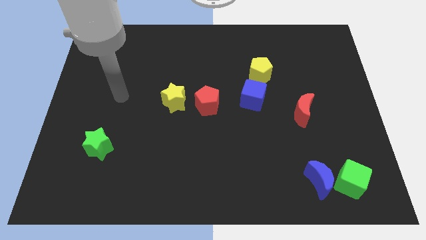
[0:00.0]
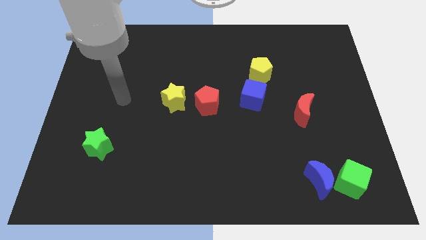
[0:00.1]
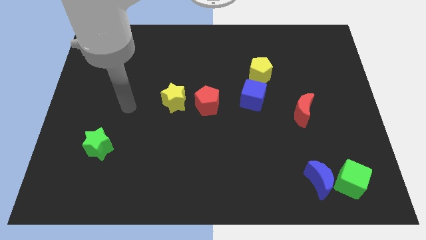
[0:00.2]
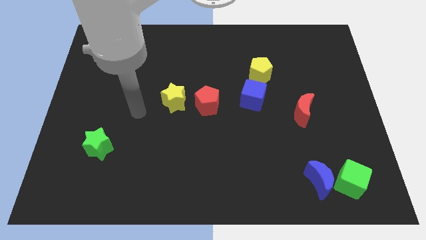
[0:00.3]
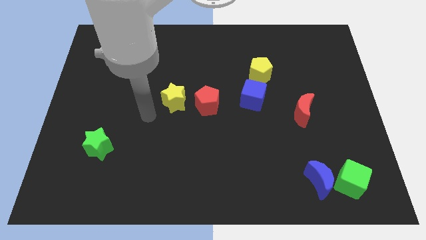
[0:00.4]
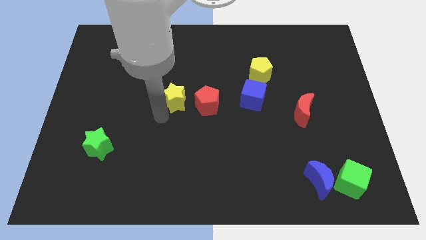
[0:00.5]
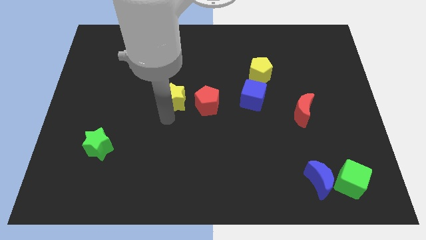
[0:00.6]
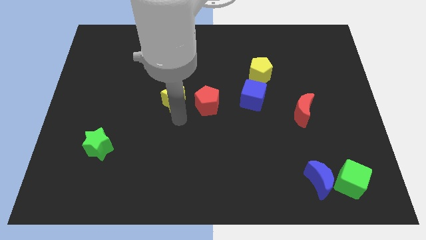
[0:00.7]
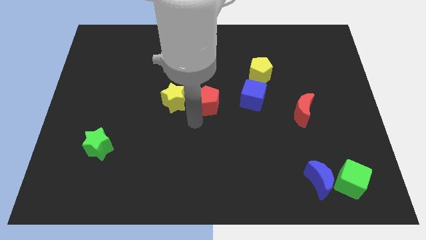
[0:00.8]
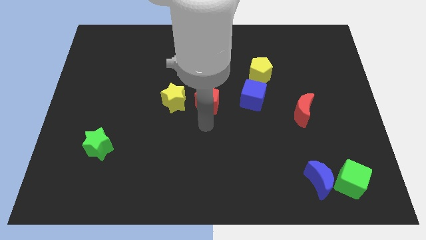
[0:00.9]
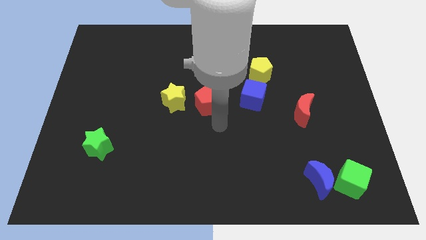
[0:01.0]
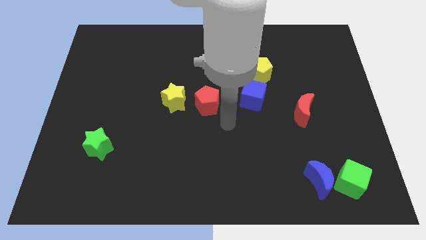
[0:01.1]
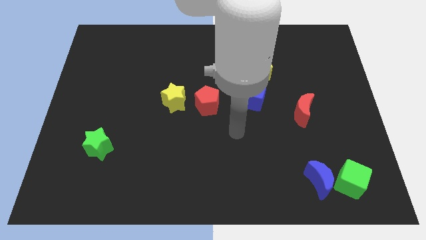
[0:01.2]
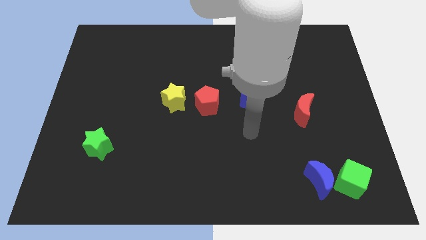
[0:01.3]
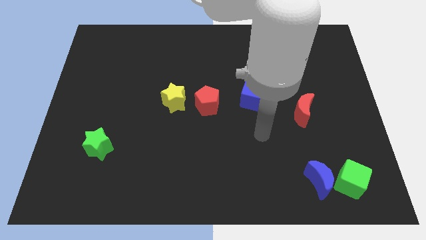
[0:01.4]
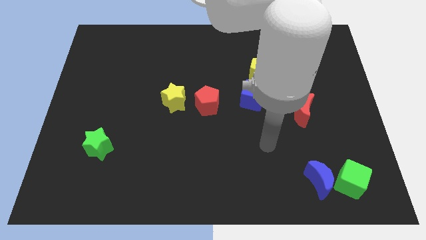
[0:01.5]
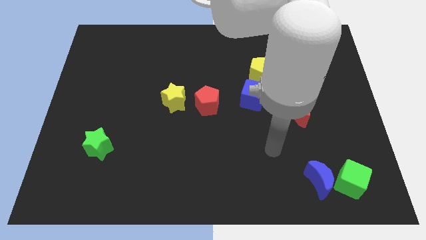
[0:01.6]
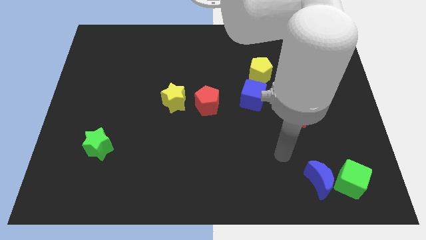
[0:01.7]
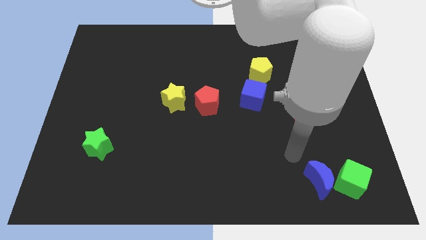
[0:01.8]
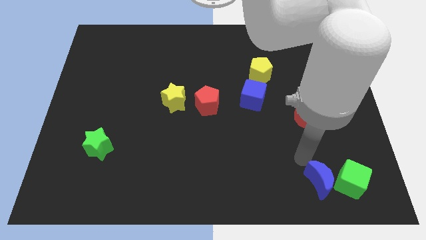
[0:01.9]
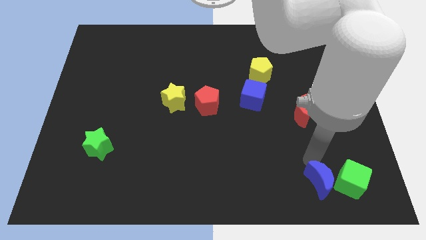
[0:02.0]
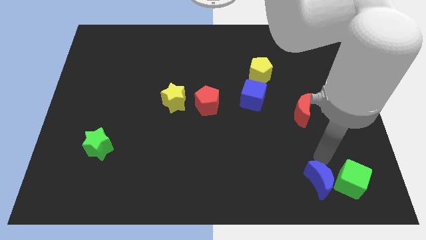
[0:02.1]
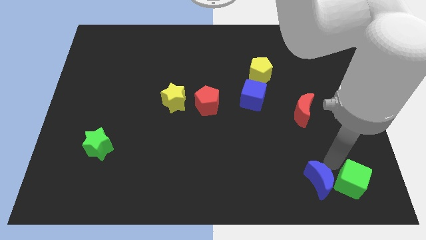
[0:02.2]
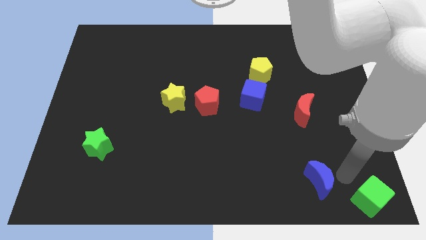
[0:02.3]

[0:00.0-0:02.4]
move the blue moon away from the green cube

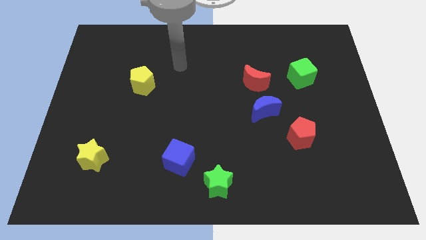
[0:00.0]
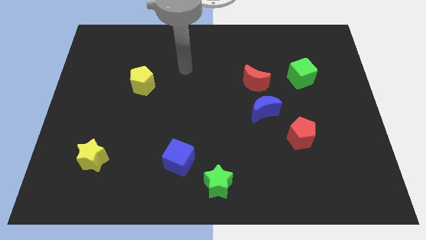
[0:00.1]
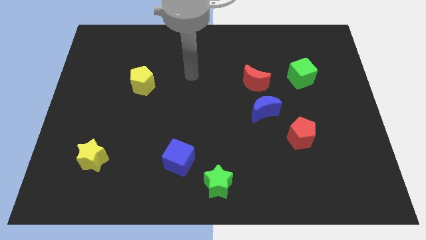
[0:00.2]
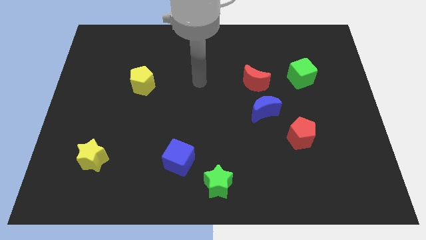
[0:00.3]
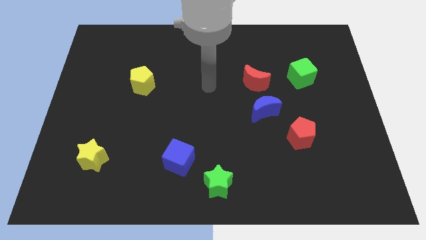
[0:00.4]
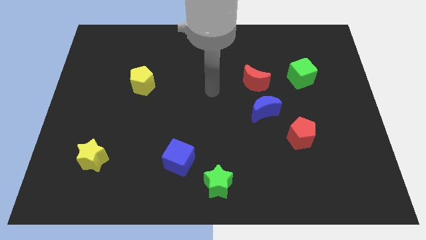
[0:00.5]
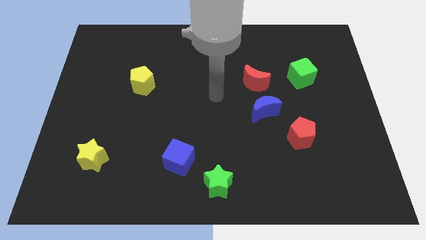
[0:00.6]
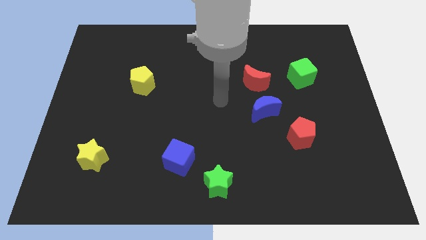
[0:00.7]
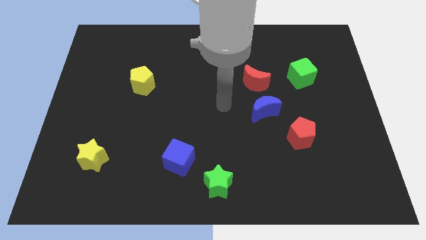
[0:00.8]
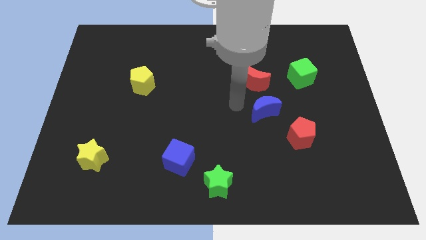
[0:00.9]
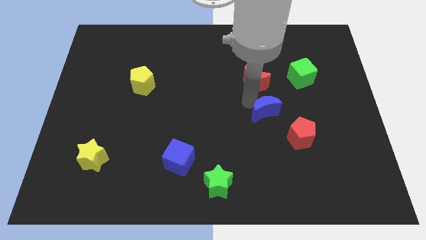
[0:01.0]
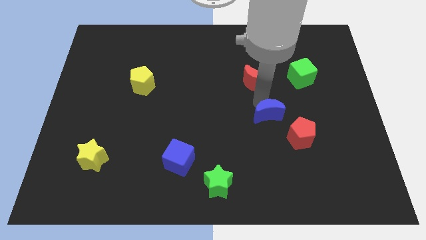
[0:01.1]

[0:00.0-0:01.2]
separate the red moon from the blue moon

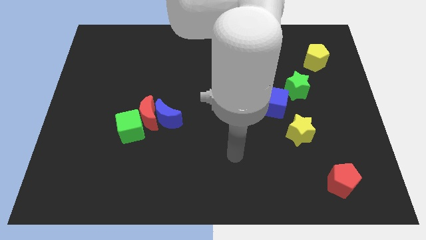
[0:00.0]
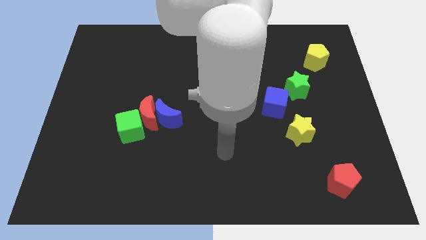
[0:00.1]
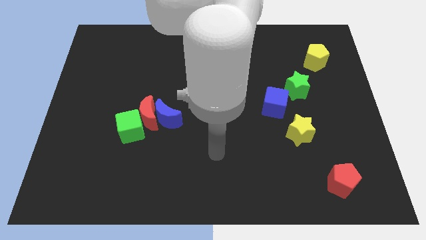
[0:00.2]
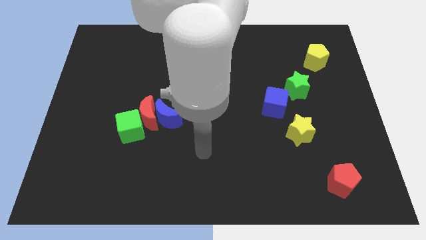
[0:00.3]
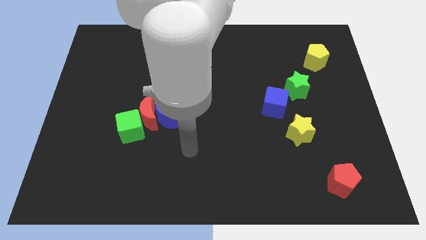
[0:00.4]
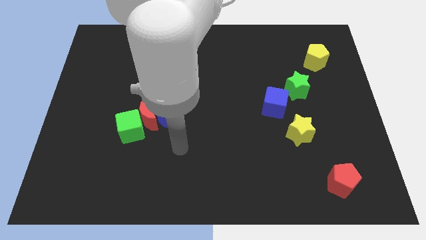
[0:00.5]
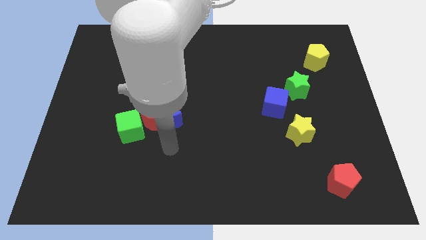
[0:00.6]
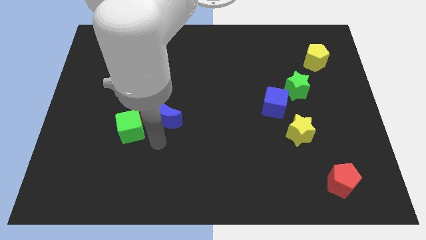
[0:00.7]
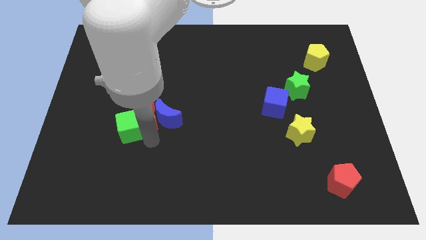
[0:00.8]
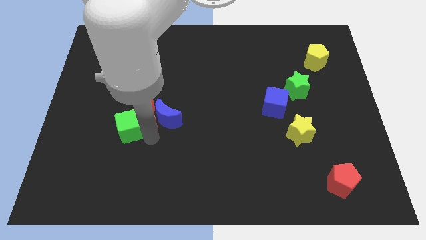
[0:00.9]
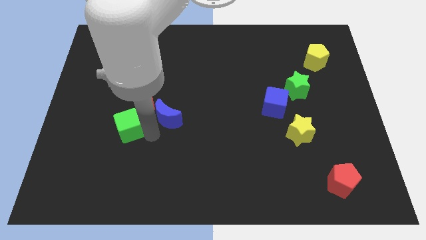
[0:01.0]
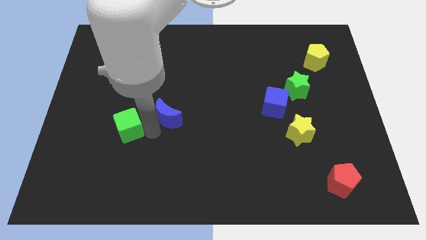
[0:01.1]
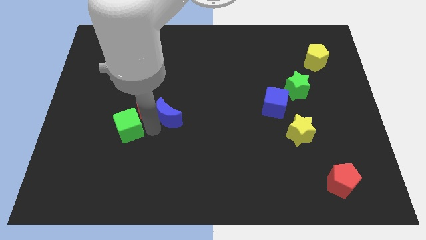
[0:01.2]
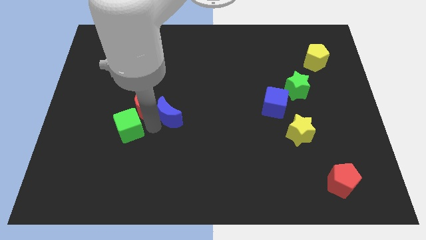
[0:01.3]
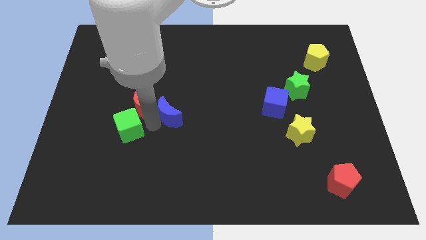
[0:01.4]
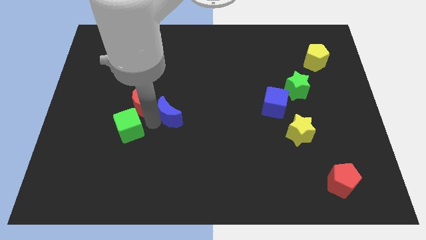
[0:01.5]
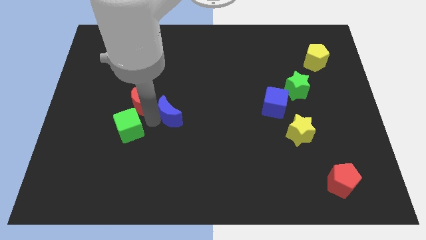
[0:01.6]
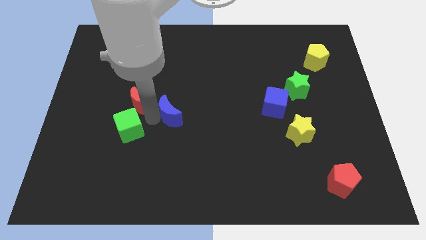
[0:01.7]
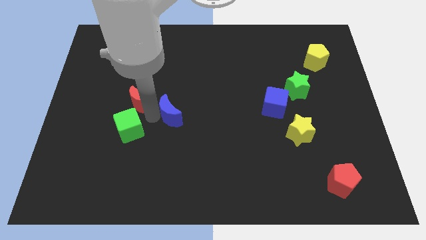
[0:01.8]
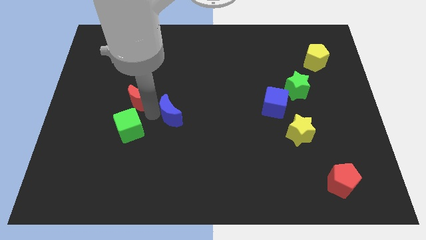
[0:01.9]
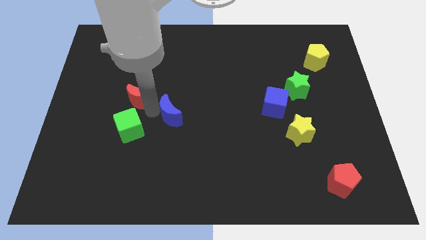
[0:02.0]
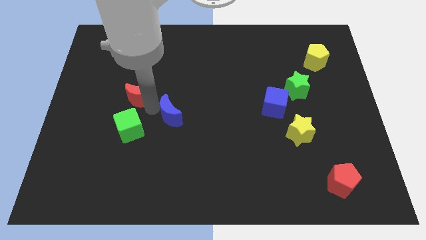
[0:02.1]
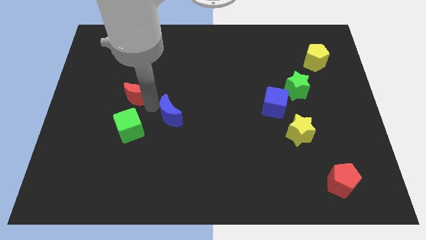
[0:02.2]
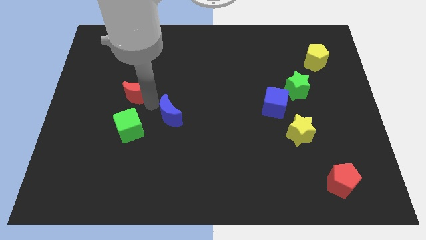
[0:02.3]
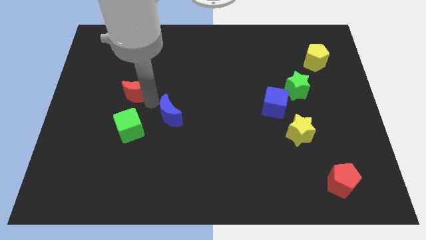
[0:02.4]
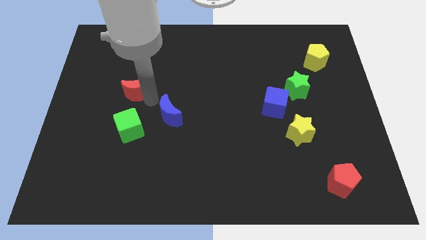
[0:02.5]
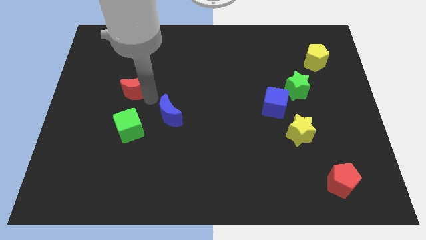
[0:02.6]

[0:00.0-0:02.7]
separate the red moon from the blue moon and green cube

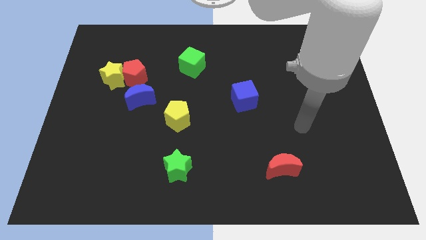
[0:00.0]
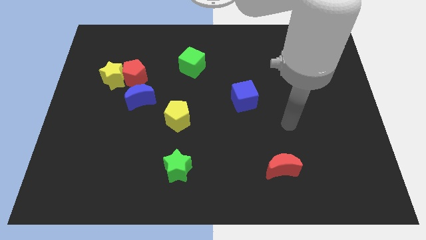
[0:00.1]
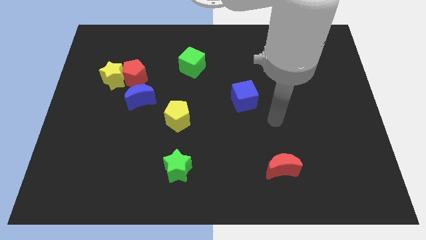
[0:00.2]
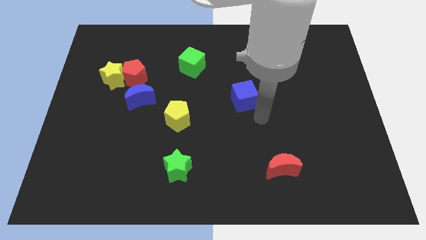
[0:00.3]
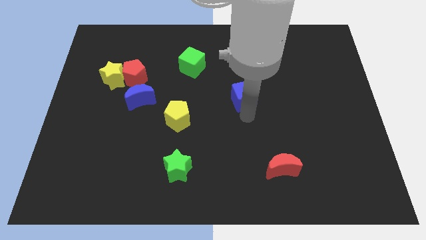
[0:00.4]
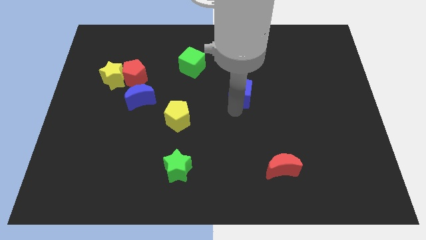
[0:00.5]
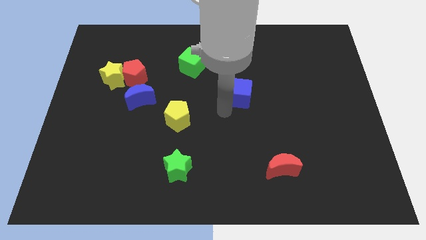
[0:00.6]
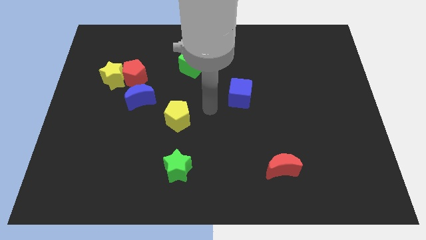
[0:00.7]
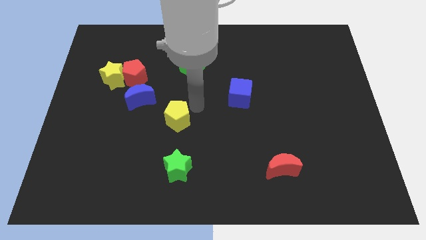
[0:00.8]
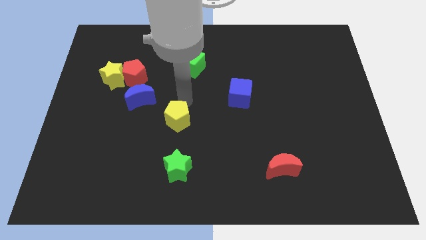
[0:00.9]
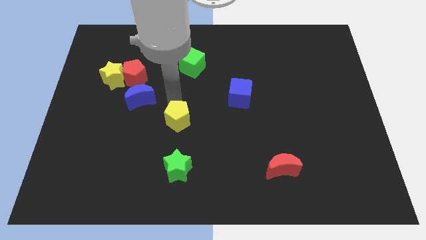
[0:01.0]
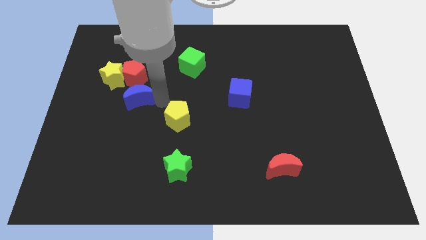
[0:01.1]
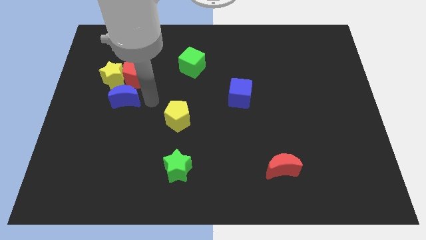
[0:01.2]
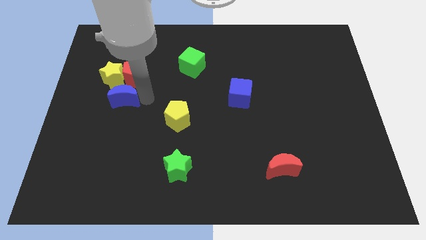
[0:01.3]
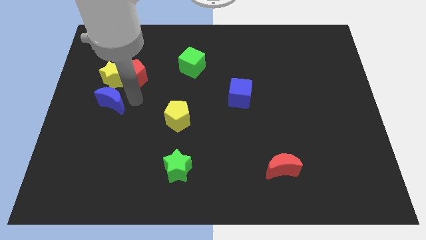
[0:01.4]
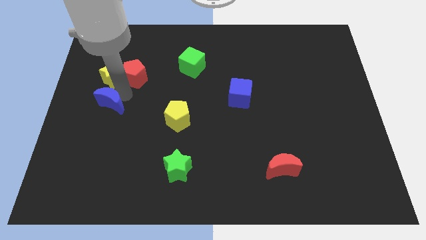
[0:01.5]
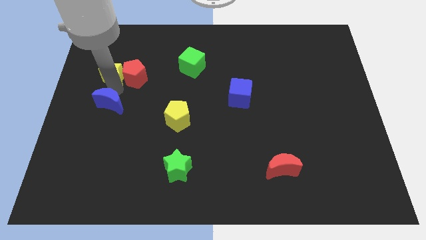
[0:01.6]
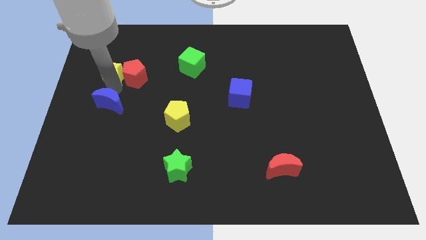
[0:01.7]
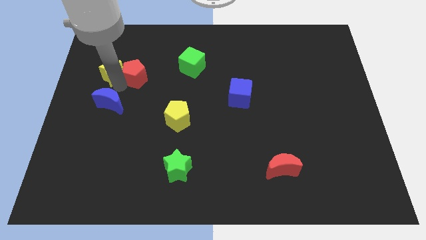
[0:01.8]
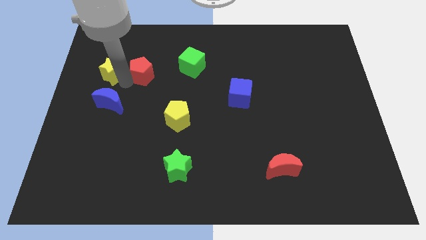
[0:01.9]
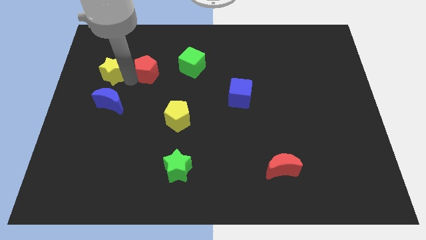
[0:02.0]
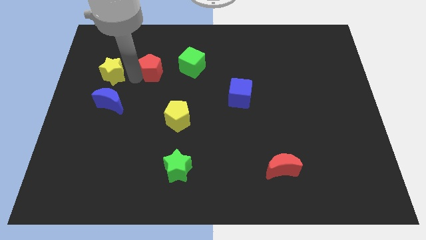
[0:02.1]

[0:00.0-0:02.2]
move the red pentagon away from the yellow star and blue moon

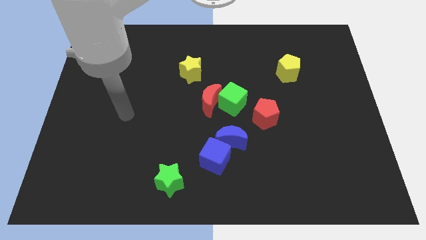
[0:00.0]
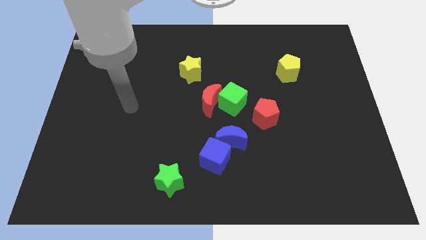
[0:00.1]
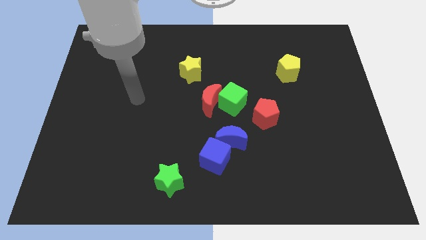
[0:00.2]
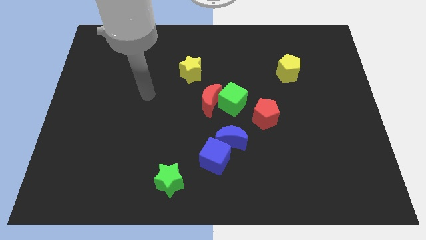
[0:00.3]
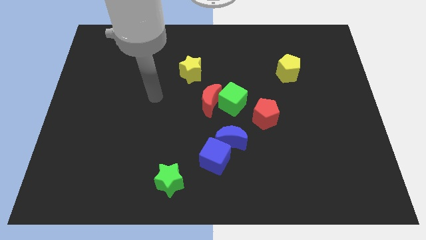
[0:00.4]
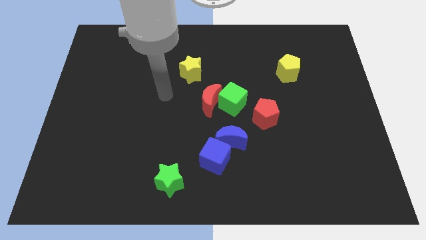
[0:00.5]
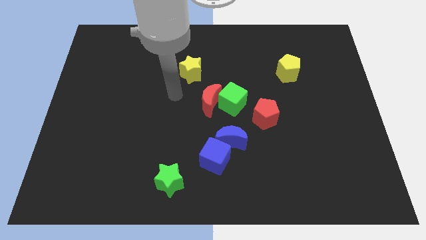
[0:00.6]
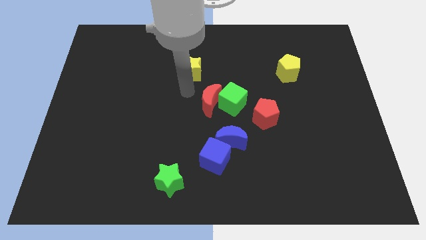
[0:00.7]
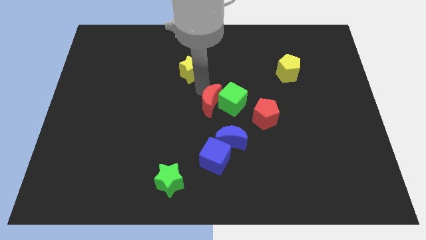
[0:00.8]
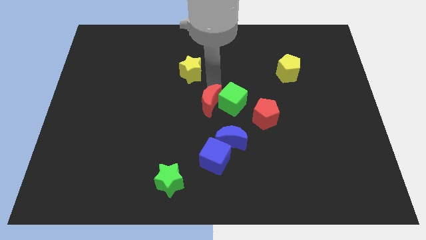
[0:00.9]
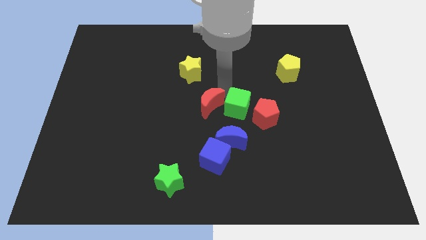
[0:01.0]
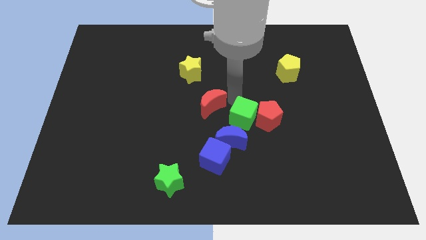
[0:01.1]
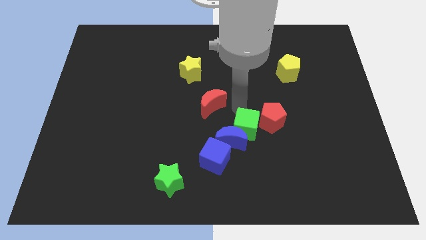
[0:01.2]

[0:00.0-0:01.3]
pull the red moon apart from the green cube
